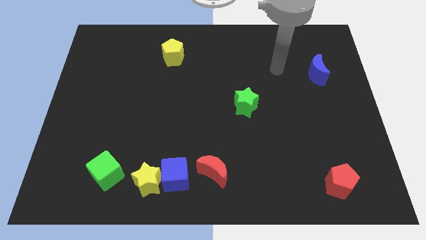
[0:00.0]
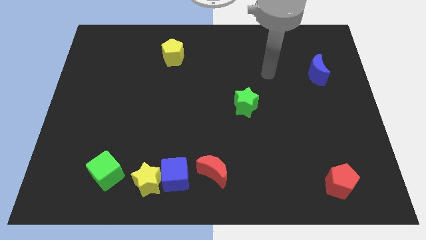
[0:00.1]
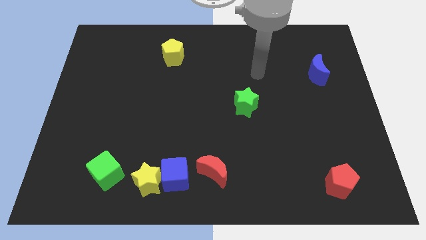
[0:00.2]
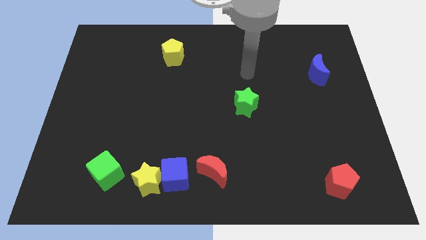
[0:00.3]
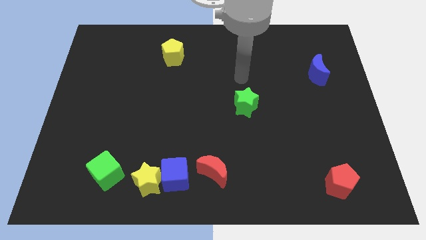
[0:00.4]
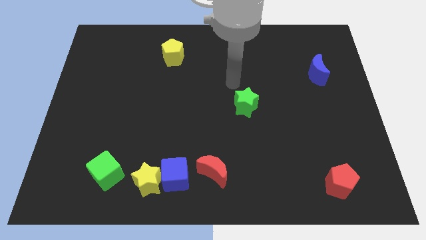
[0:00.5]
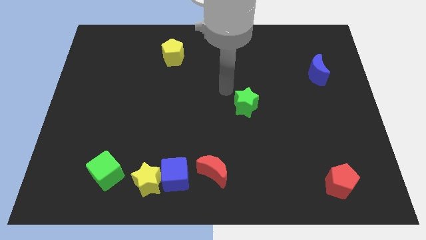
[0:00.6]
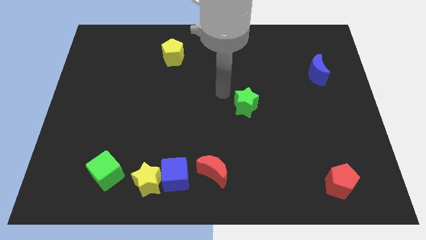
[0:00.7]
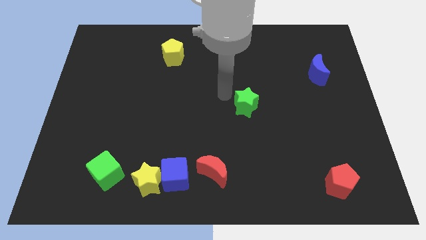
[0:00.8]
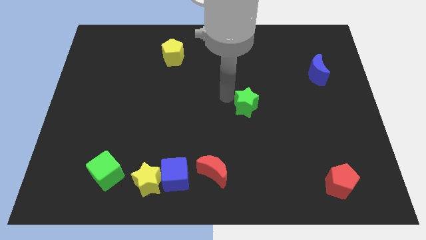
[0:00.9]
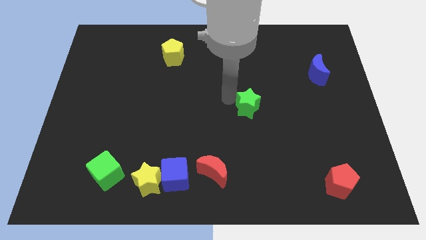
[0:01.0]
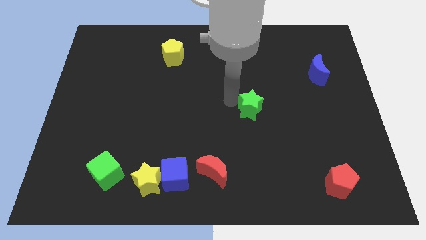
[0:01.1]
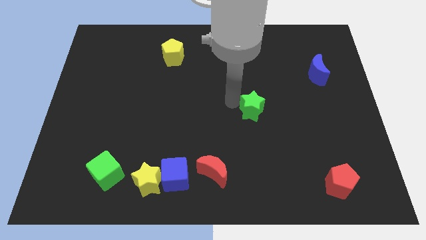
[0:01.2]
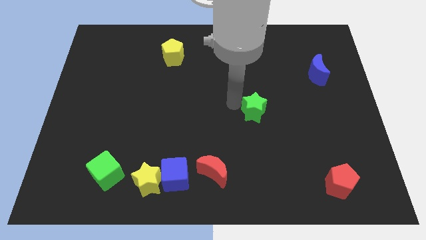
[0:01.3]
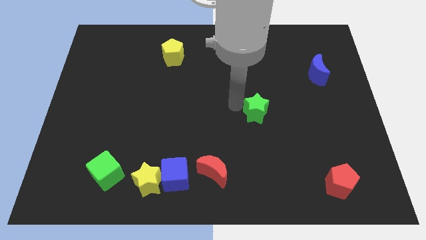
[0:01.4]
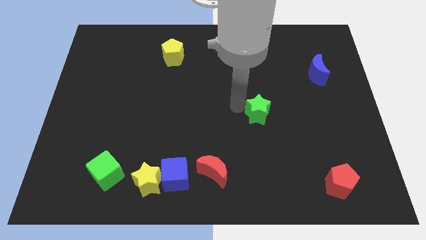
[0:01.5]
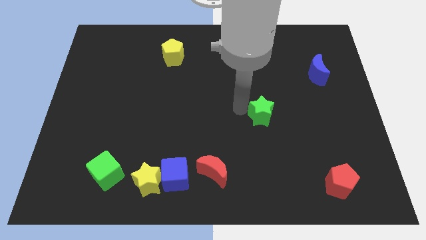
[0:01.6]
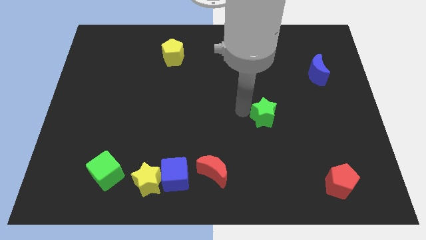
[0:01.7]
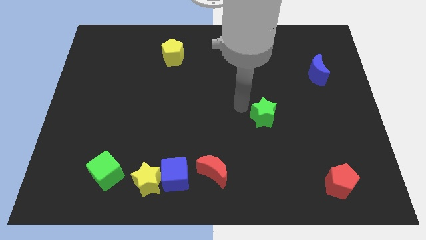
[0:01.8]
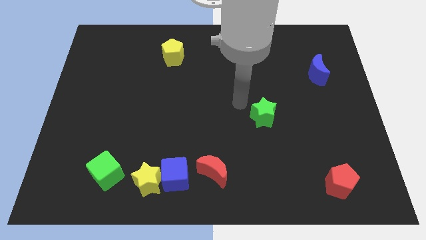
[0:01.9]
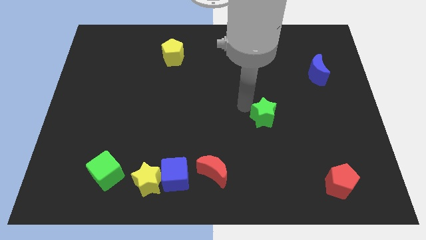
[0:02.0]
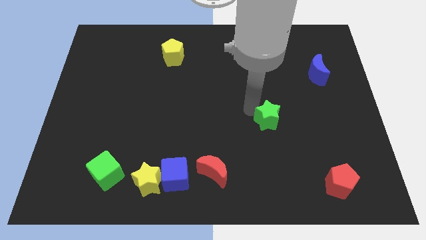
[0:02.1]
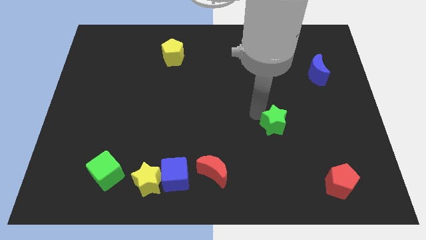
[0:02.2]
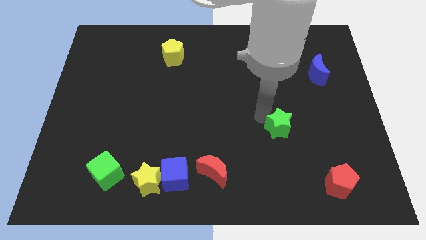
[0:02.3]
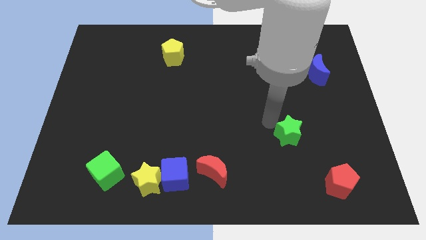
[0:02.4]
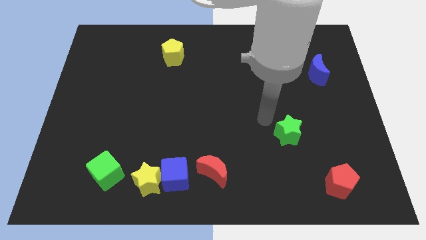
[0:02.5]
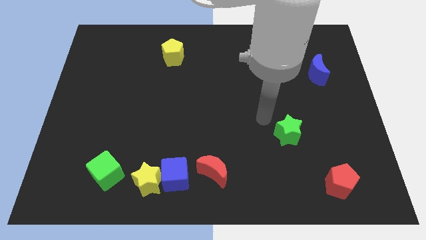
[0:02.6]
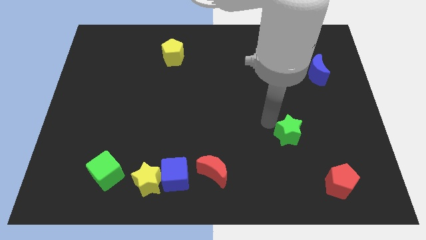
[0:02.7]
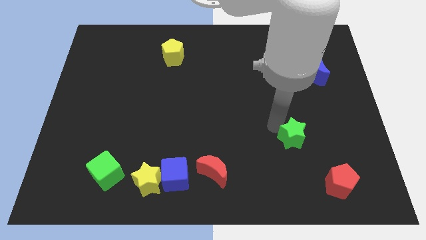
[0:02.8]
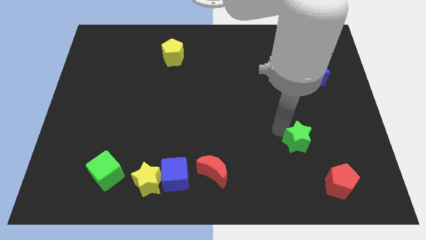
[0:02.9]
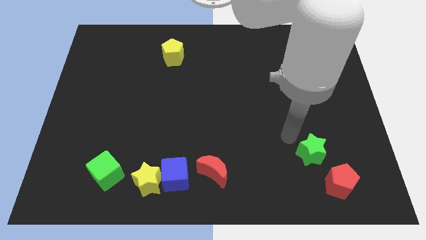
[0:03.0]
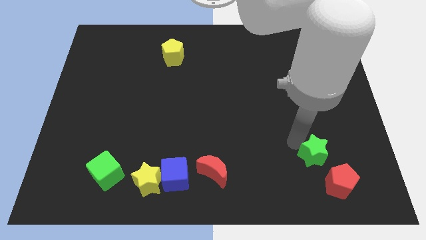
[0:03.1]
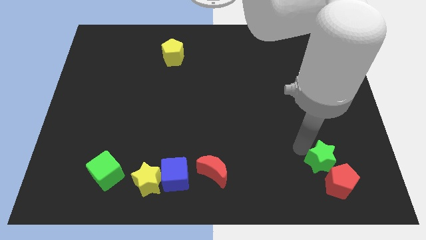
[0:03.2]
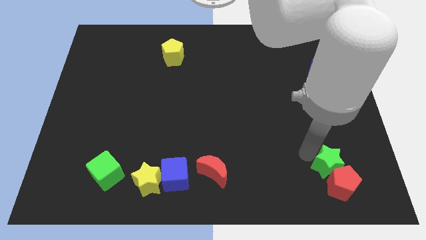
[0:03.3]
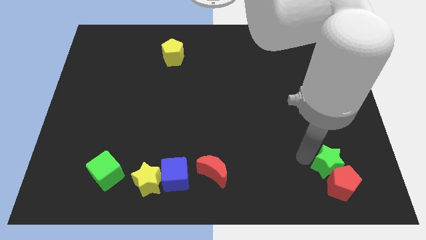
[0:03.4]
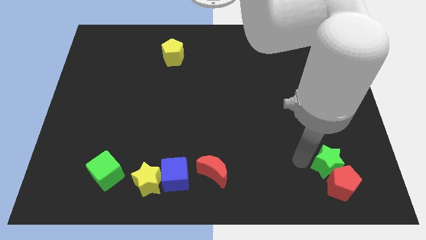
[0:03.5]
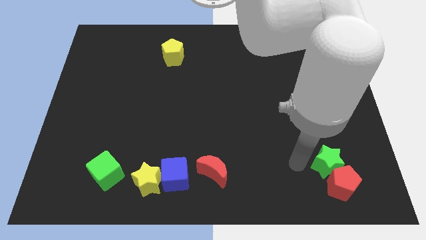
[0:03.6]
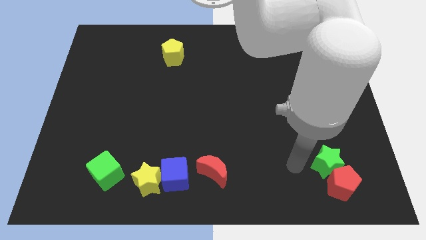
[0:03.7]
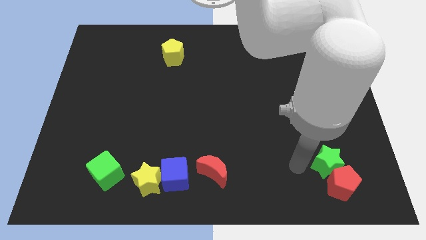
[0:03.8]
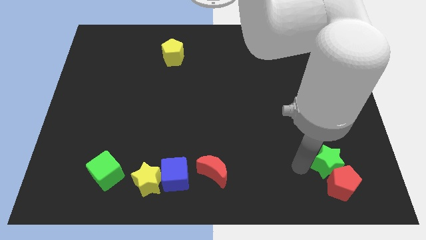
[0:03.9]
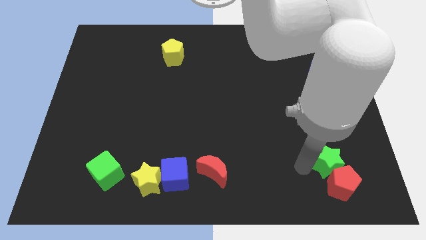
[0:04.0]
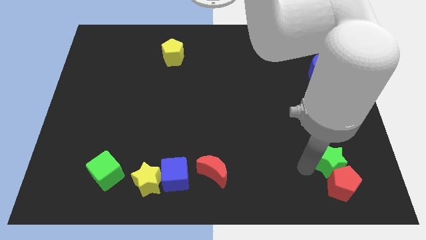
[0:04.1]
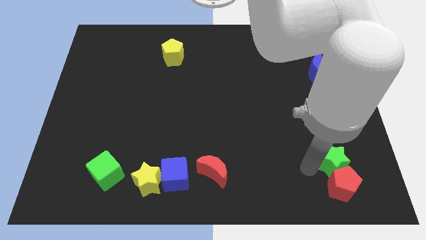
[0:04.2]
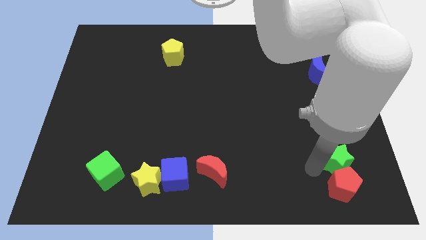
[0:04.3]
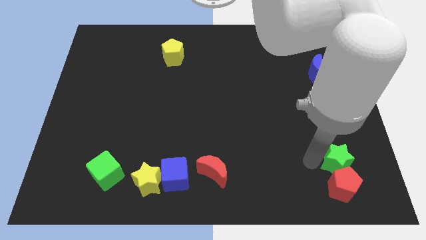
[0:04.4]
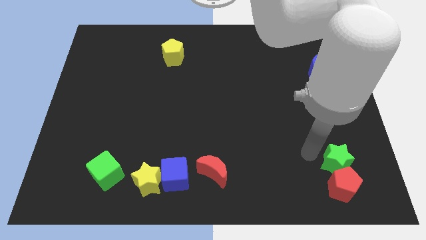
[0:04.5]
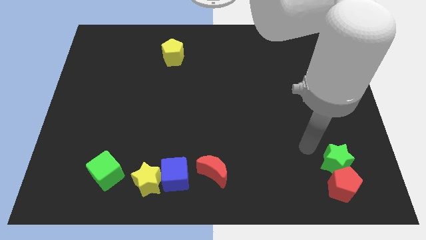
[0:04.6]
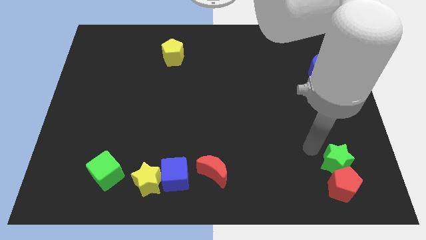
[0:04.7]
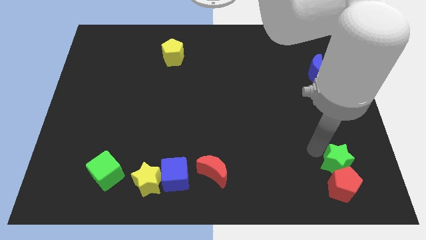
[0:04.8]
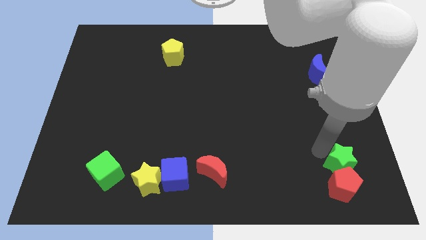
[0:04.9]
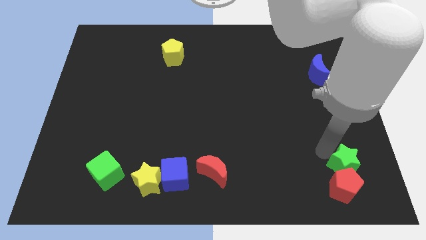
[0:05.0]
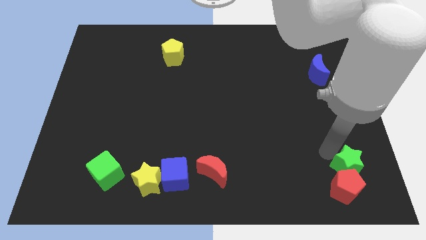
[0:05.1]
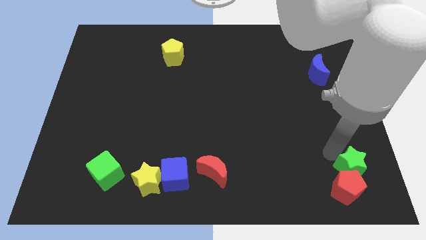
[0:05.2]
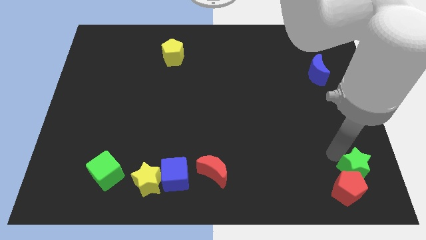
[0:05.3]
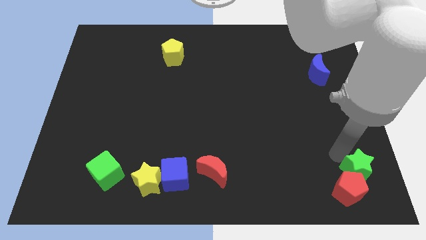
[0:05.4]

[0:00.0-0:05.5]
slide the green star to the lower right corner

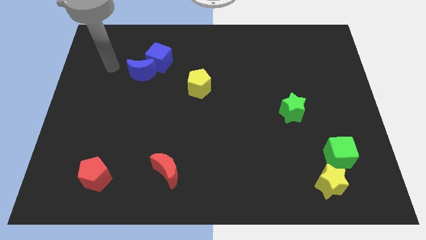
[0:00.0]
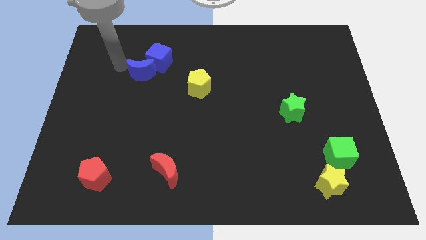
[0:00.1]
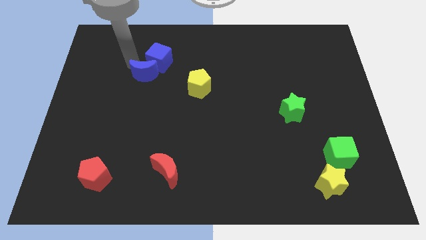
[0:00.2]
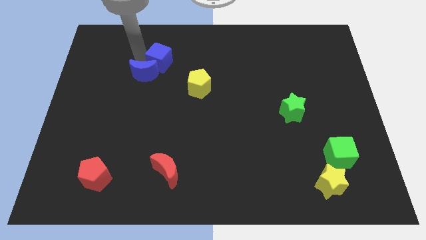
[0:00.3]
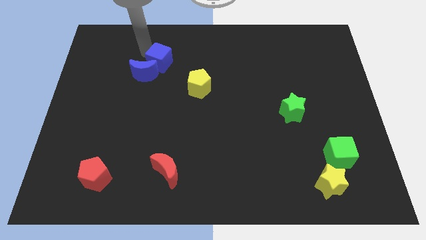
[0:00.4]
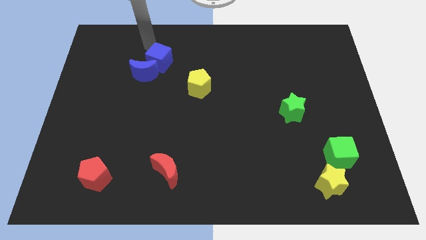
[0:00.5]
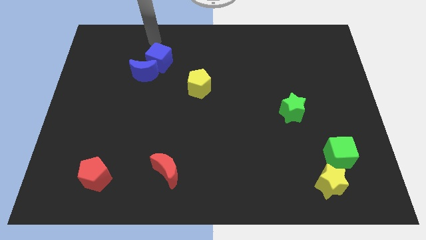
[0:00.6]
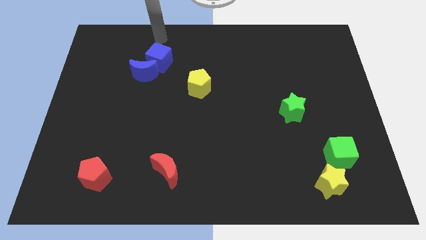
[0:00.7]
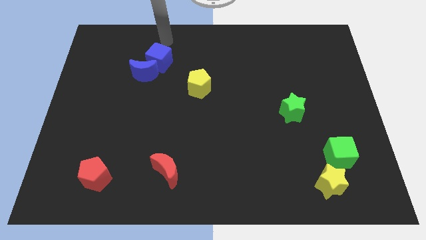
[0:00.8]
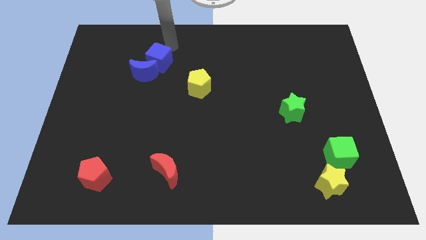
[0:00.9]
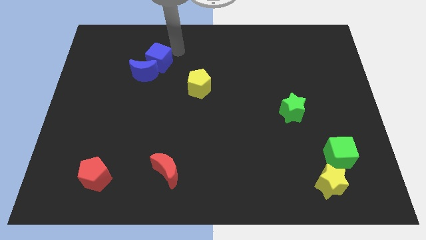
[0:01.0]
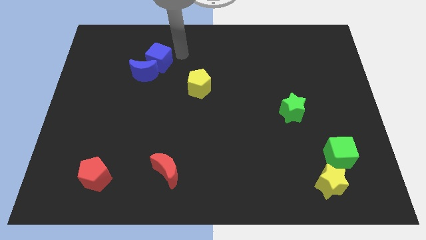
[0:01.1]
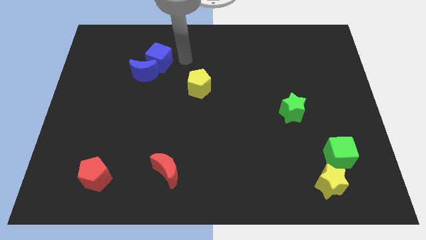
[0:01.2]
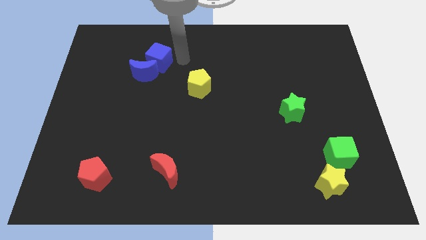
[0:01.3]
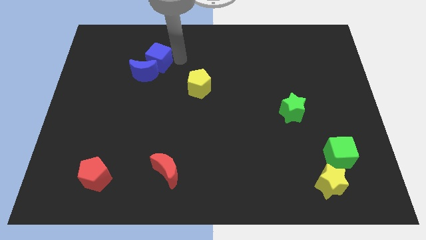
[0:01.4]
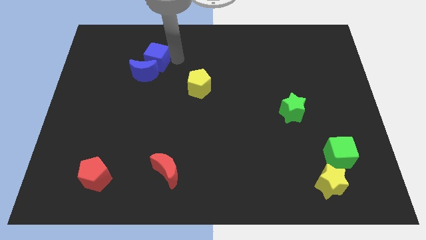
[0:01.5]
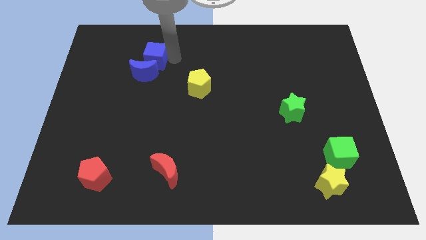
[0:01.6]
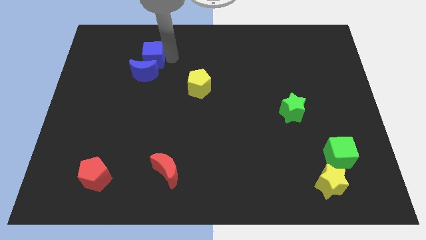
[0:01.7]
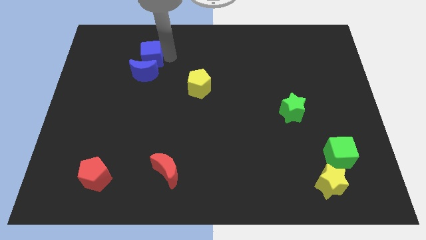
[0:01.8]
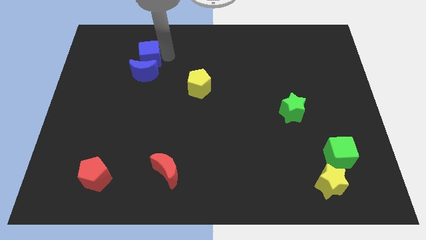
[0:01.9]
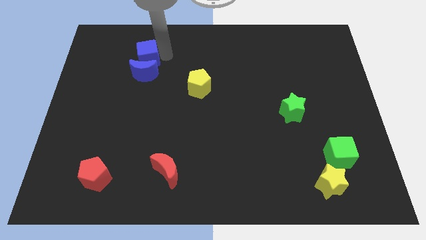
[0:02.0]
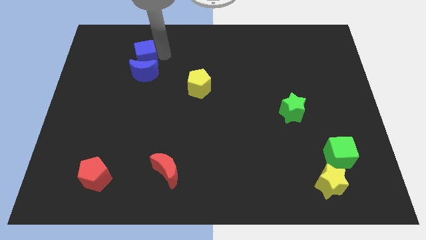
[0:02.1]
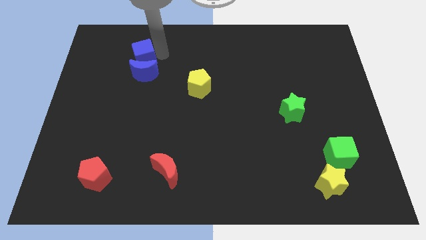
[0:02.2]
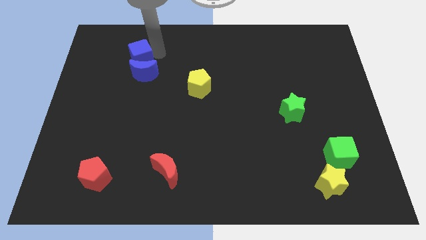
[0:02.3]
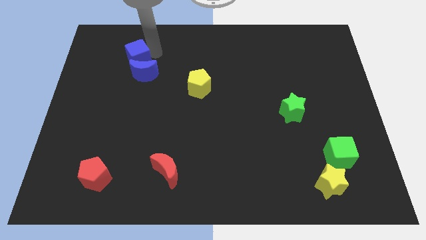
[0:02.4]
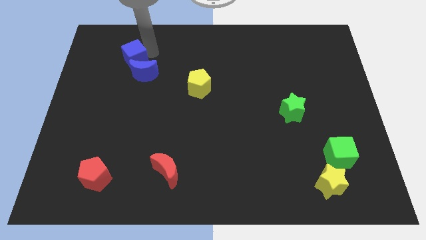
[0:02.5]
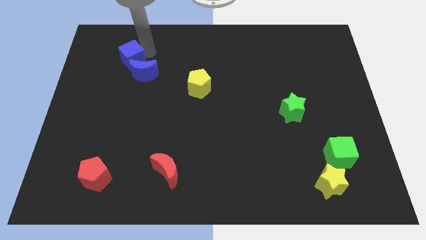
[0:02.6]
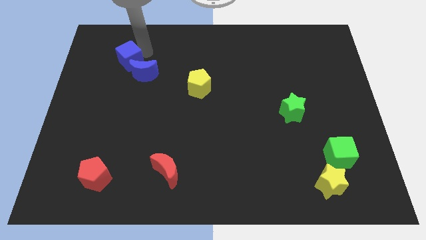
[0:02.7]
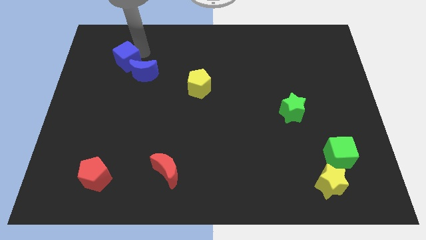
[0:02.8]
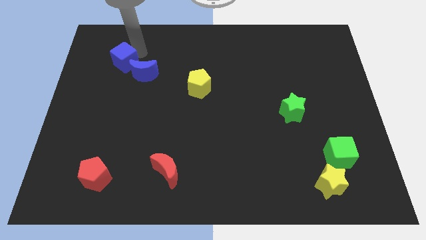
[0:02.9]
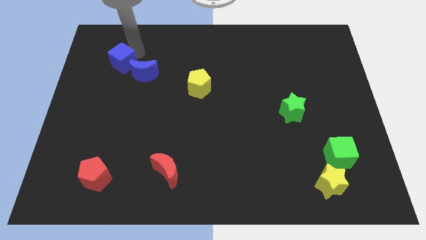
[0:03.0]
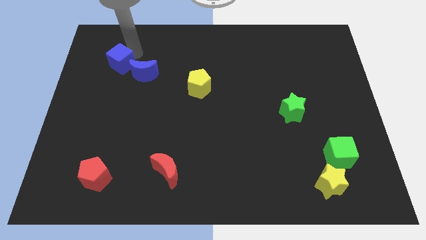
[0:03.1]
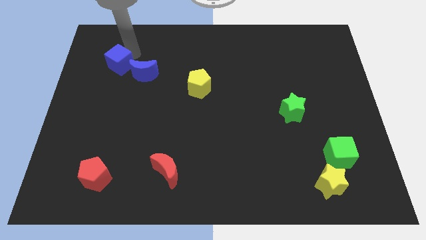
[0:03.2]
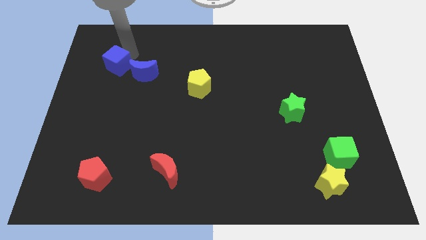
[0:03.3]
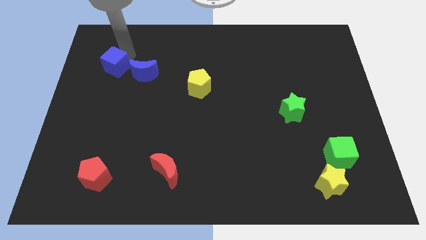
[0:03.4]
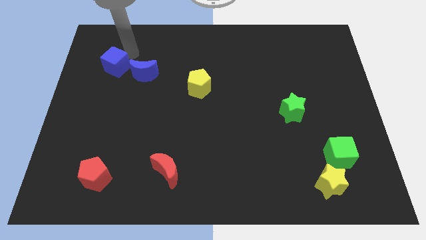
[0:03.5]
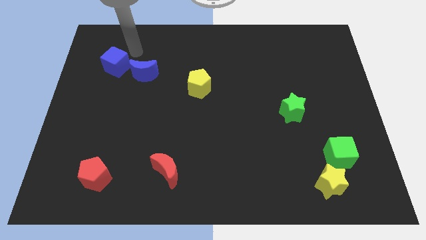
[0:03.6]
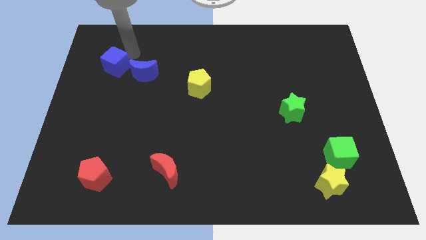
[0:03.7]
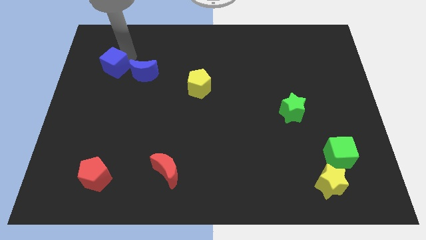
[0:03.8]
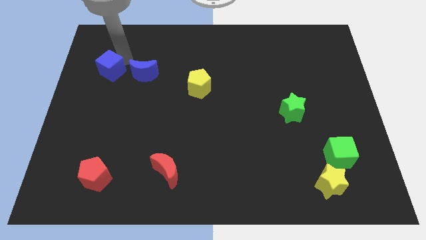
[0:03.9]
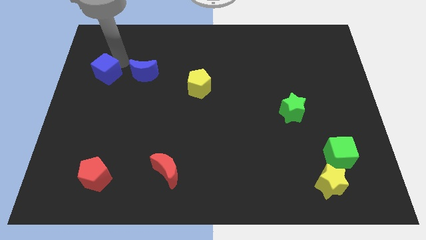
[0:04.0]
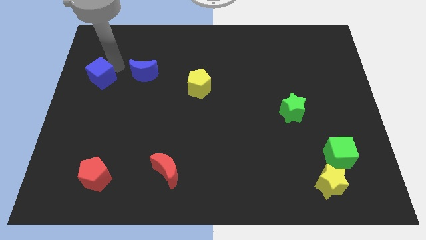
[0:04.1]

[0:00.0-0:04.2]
move the blue cube to the left side
